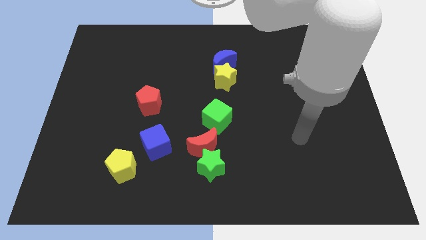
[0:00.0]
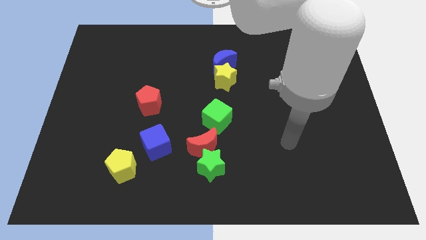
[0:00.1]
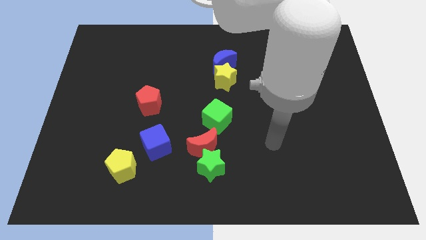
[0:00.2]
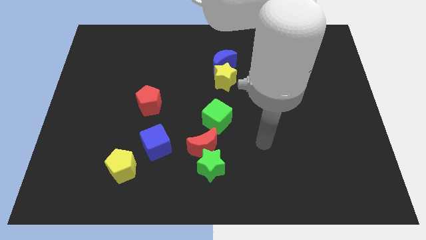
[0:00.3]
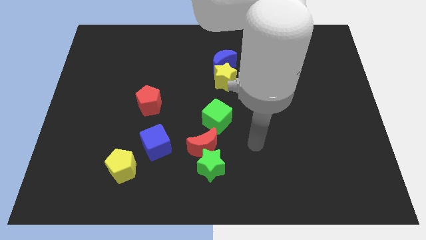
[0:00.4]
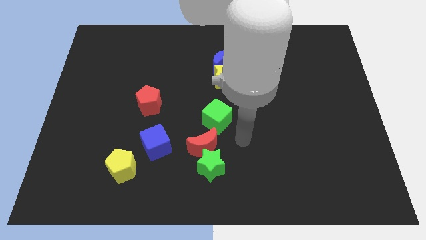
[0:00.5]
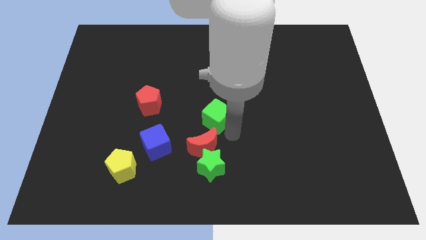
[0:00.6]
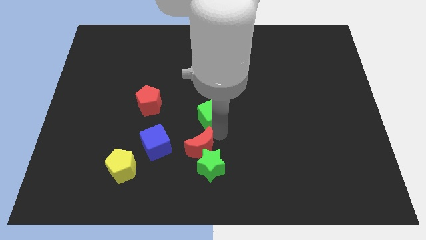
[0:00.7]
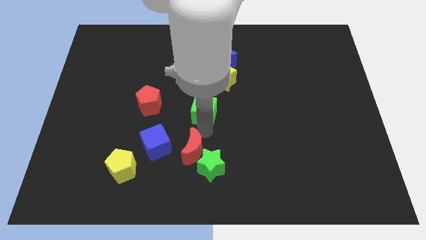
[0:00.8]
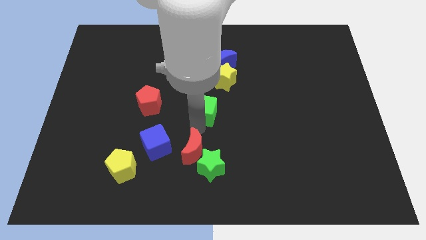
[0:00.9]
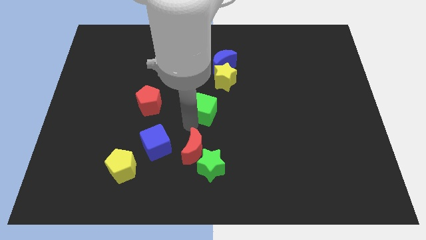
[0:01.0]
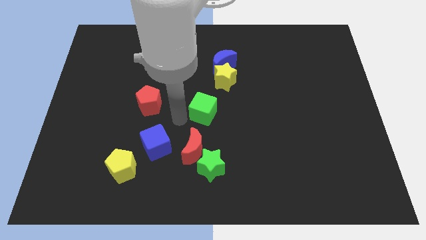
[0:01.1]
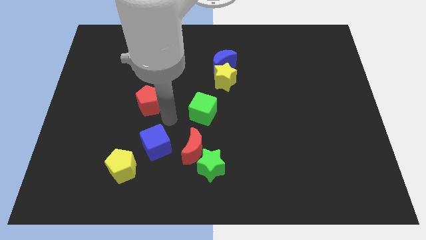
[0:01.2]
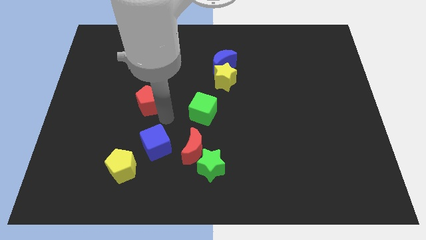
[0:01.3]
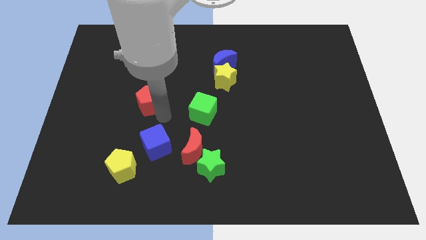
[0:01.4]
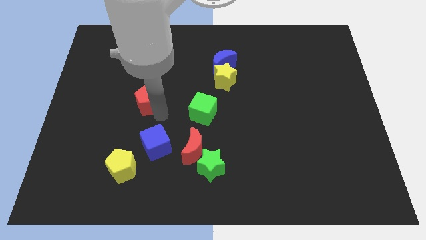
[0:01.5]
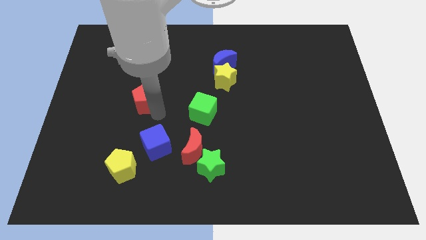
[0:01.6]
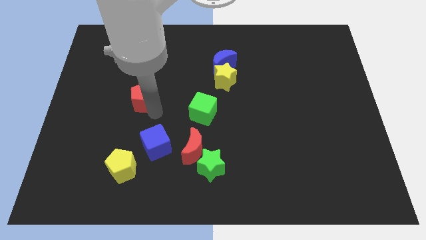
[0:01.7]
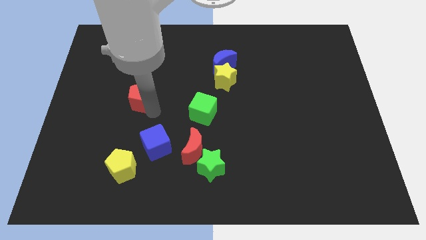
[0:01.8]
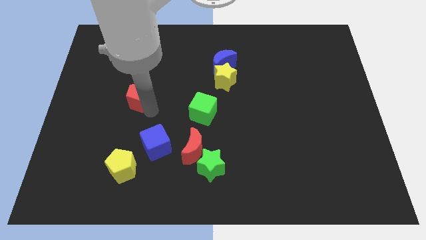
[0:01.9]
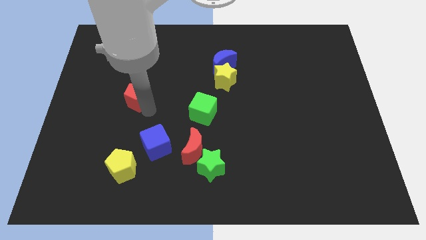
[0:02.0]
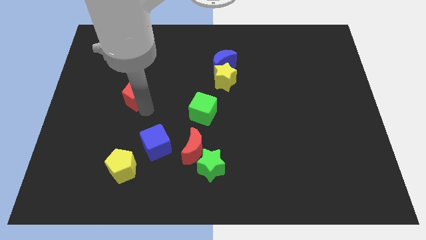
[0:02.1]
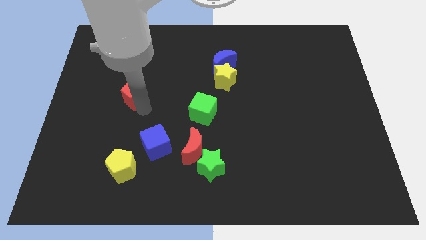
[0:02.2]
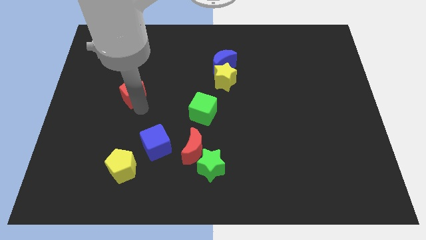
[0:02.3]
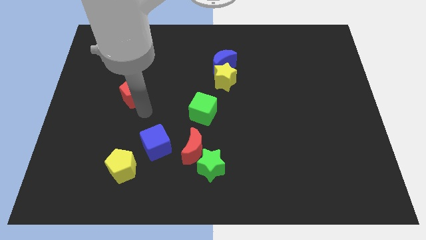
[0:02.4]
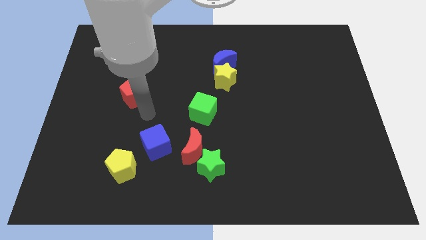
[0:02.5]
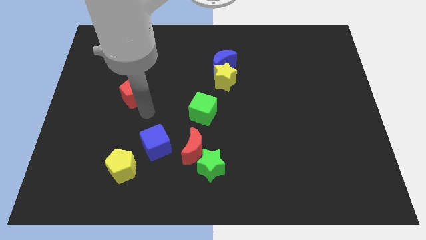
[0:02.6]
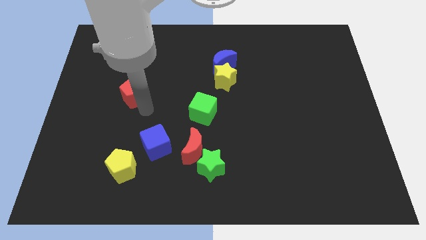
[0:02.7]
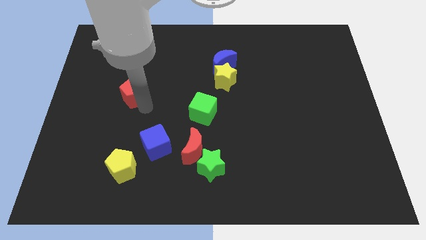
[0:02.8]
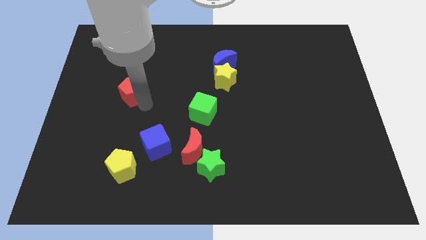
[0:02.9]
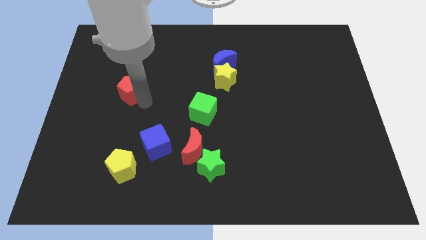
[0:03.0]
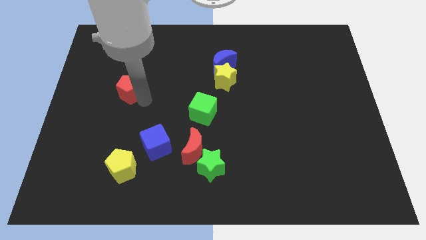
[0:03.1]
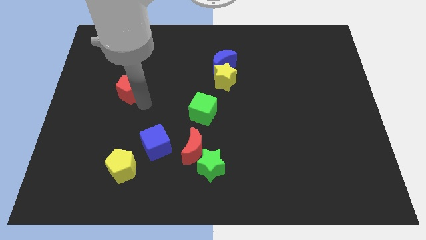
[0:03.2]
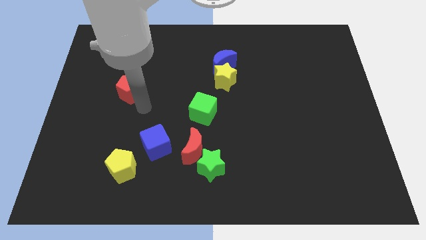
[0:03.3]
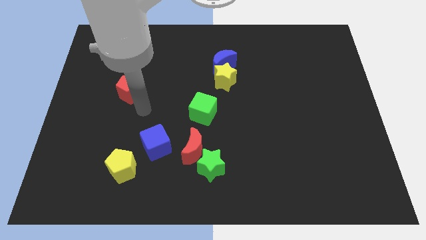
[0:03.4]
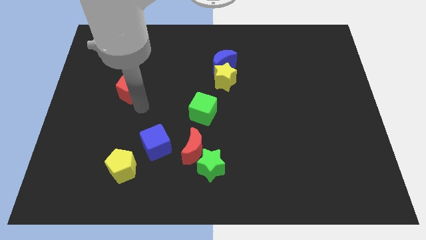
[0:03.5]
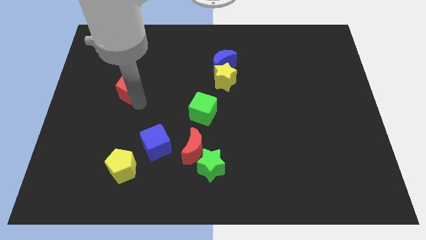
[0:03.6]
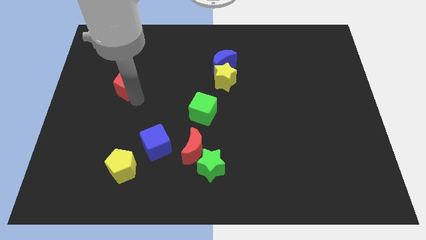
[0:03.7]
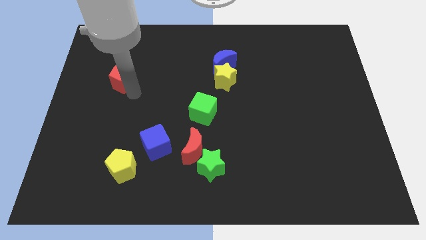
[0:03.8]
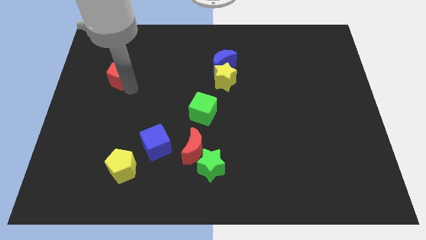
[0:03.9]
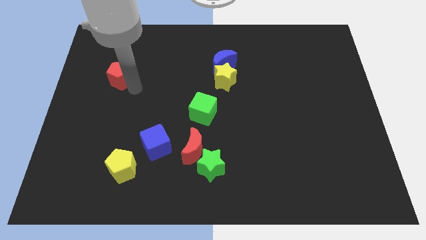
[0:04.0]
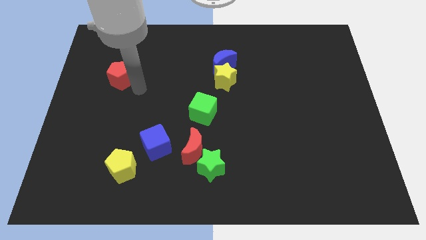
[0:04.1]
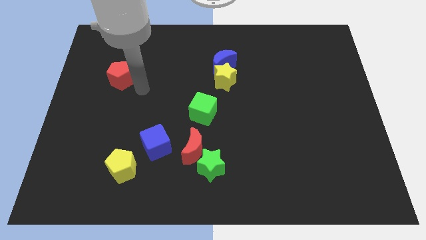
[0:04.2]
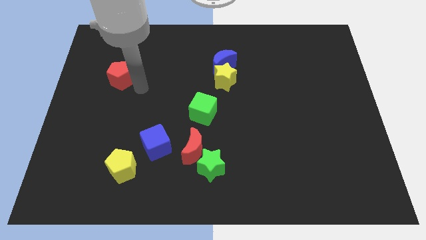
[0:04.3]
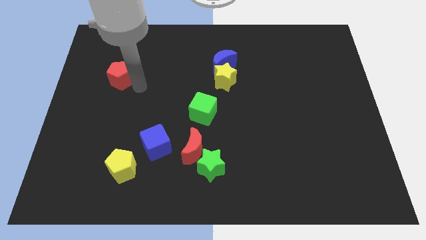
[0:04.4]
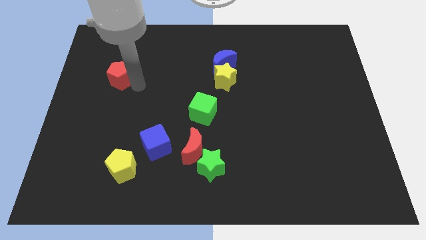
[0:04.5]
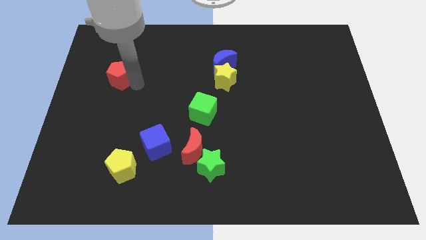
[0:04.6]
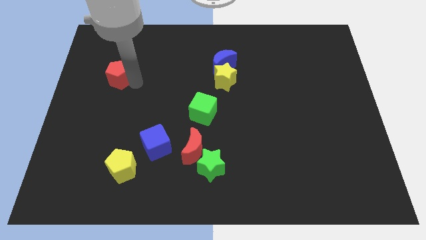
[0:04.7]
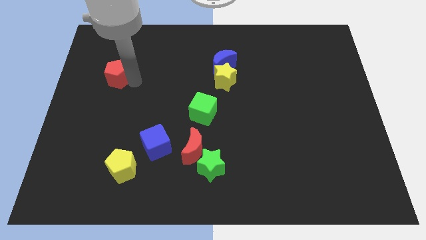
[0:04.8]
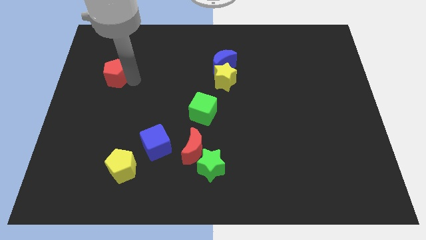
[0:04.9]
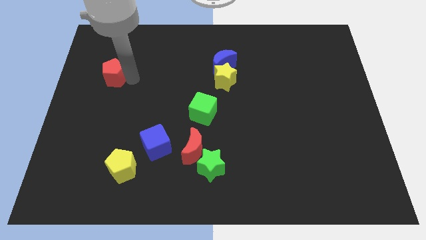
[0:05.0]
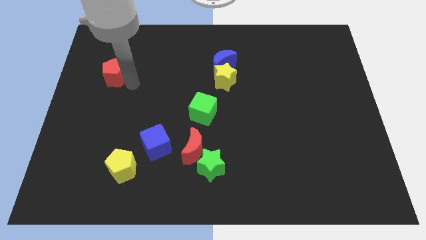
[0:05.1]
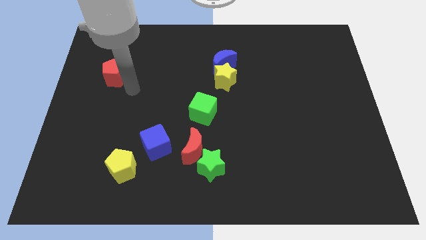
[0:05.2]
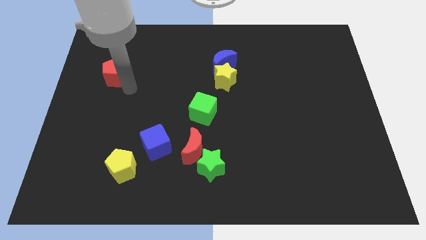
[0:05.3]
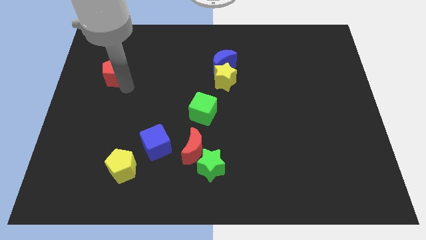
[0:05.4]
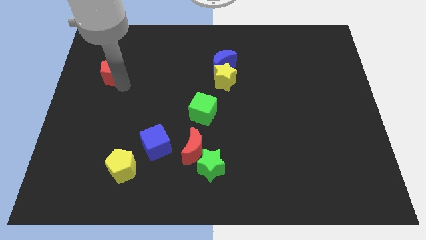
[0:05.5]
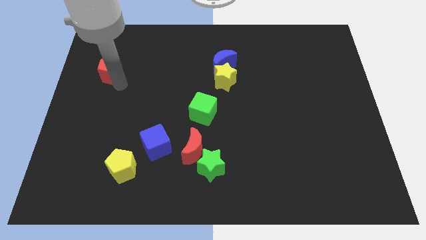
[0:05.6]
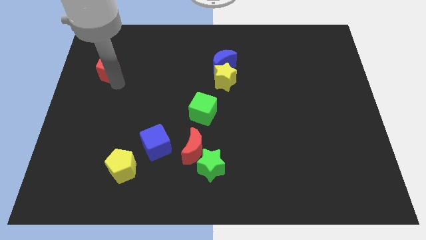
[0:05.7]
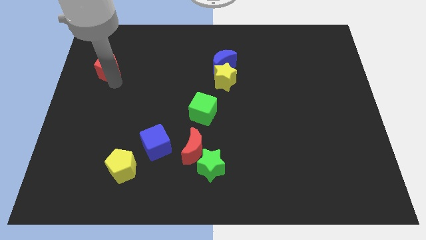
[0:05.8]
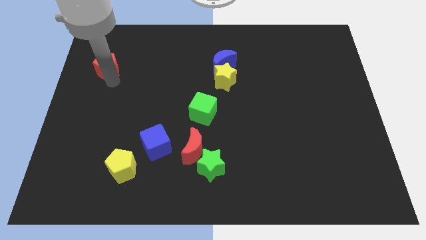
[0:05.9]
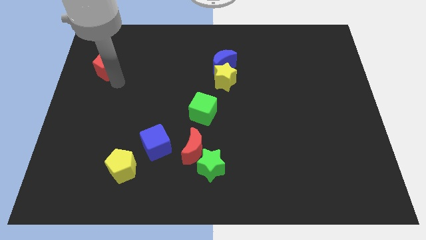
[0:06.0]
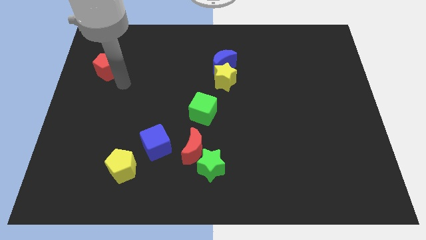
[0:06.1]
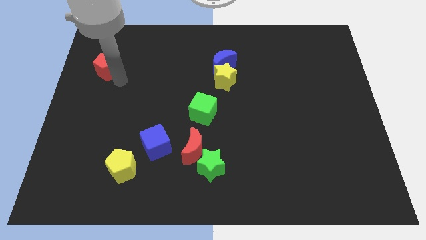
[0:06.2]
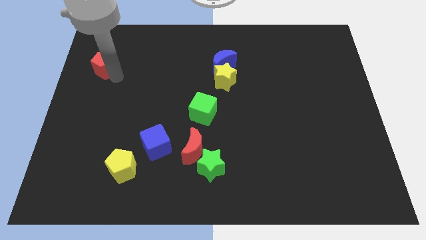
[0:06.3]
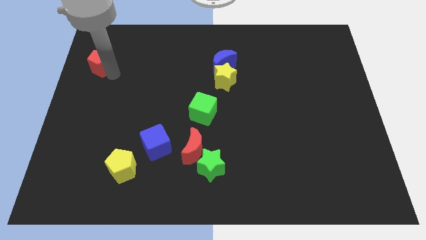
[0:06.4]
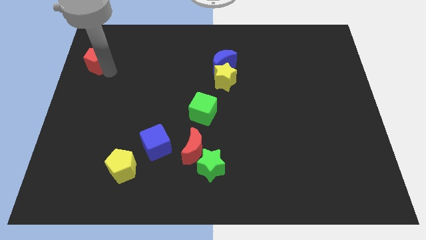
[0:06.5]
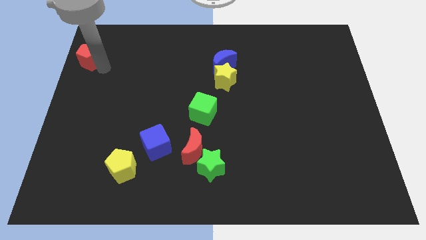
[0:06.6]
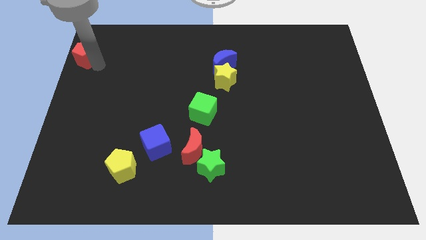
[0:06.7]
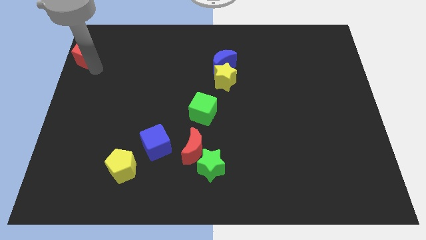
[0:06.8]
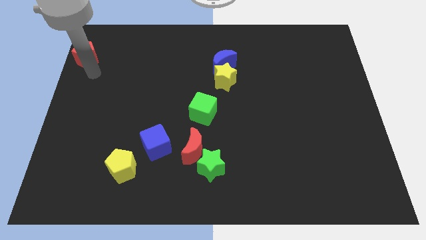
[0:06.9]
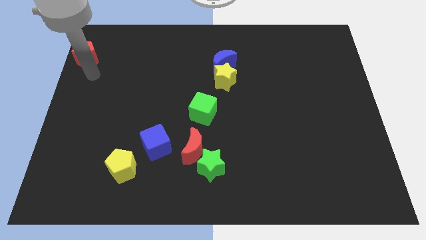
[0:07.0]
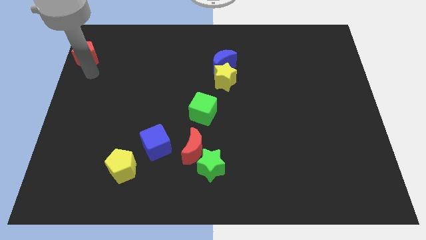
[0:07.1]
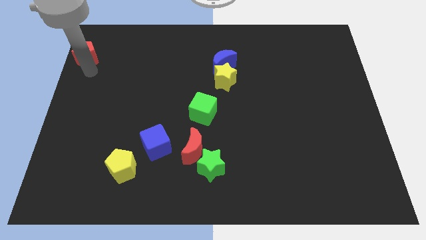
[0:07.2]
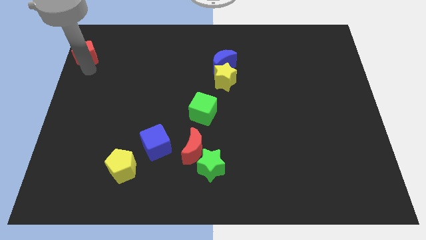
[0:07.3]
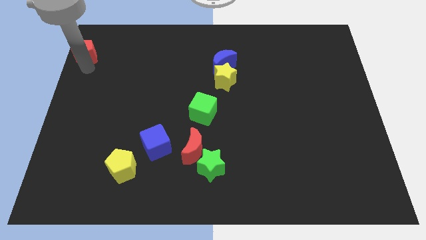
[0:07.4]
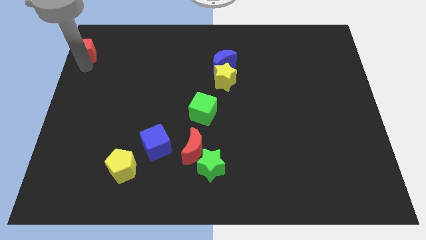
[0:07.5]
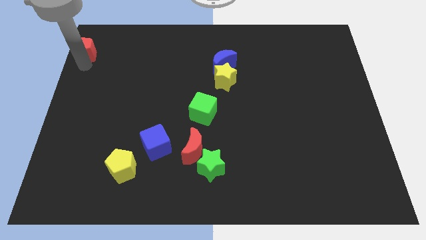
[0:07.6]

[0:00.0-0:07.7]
put the red pentagon to the top left of the board
